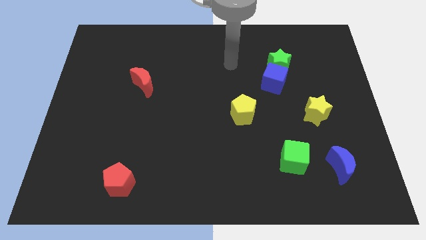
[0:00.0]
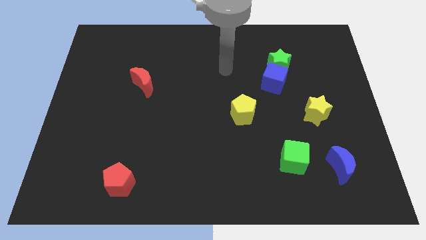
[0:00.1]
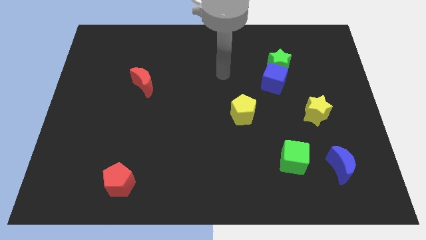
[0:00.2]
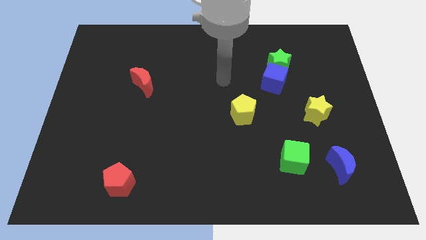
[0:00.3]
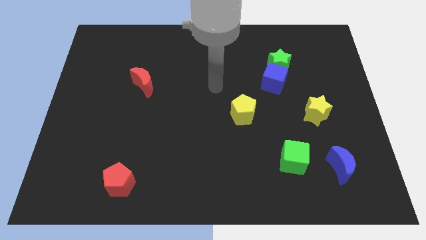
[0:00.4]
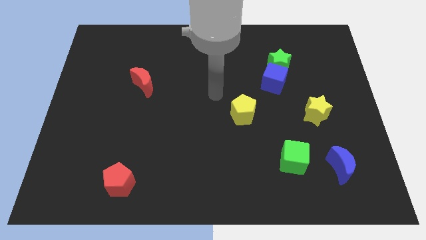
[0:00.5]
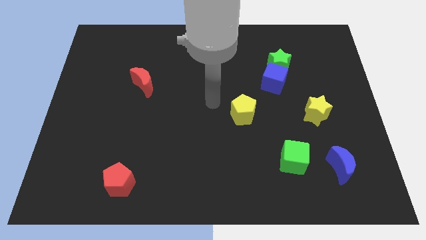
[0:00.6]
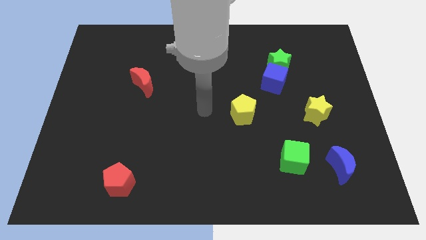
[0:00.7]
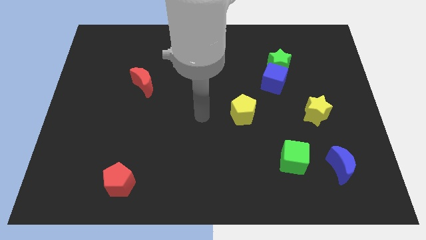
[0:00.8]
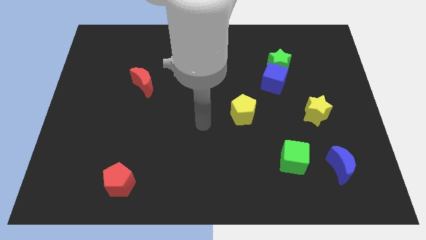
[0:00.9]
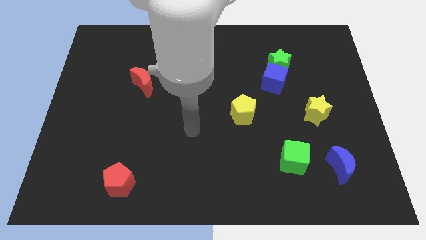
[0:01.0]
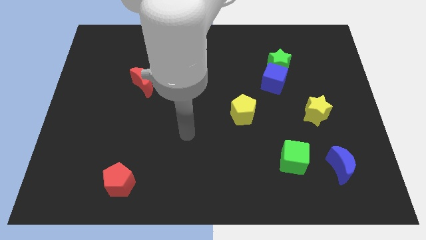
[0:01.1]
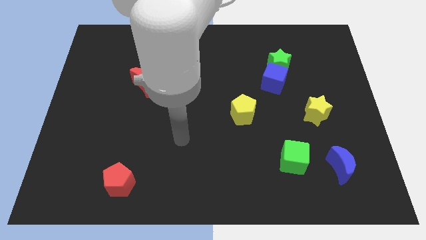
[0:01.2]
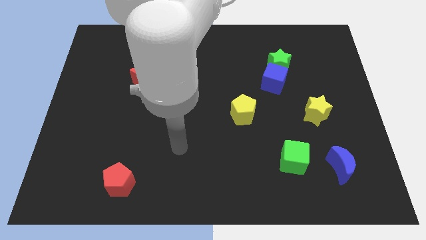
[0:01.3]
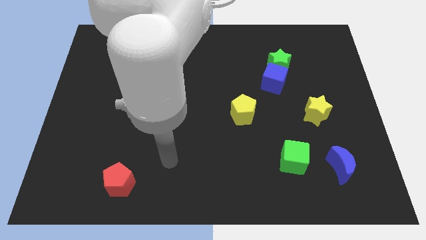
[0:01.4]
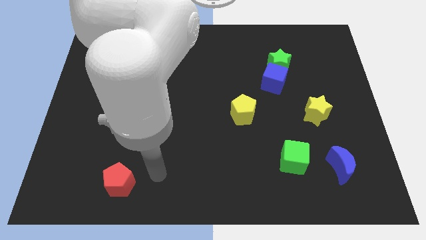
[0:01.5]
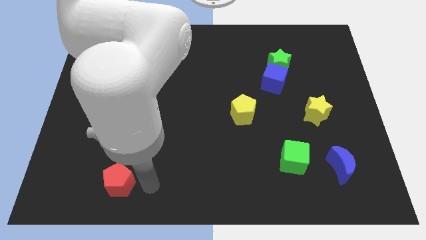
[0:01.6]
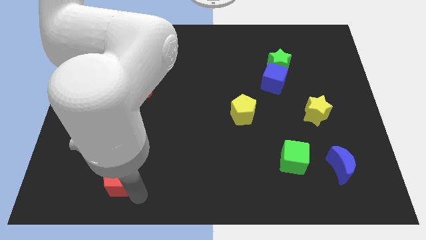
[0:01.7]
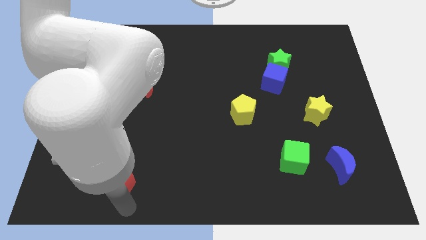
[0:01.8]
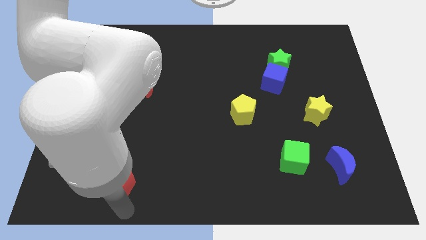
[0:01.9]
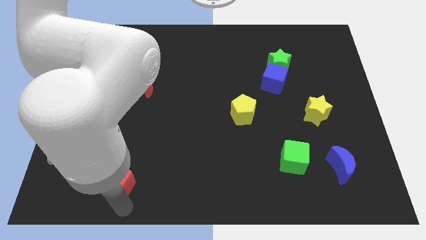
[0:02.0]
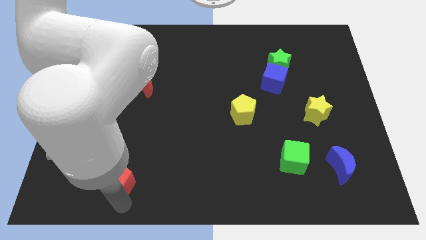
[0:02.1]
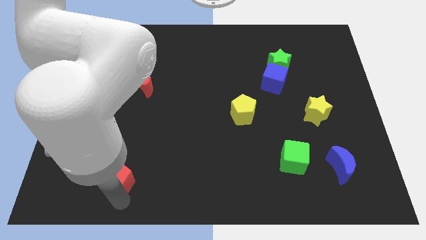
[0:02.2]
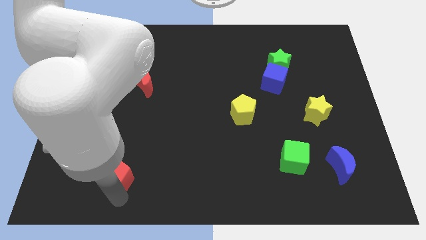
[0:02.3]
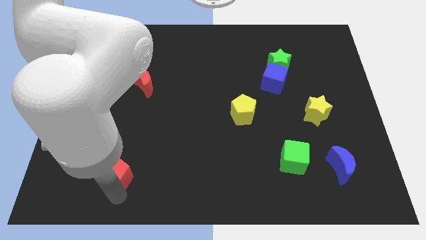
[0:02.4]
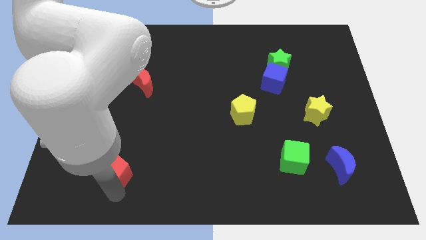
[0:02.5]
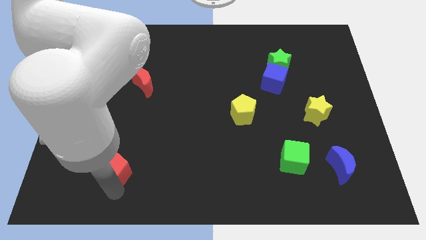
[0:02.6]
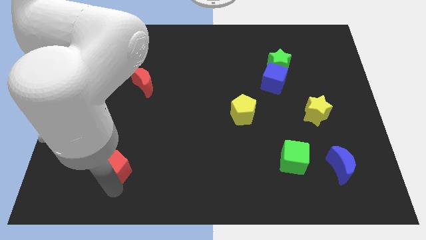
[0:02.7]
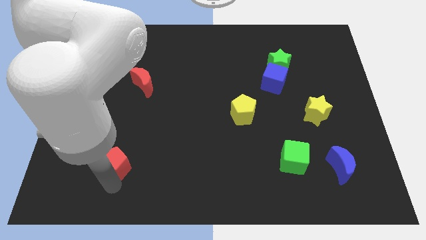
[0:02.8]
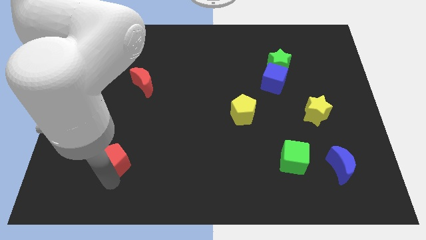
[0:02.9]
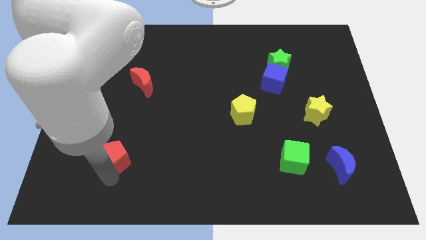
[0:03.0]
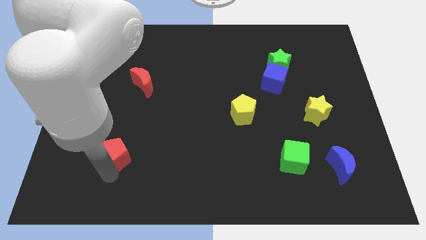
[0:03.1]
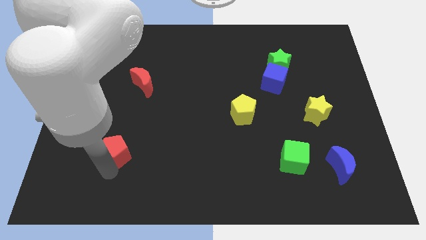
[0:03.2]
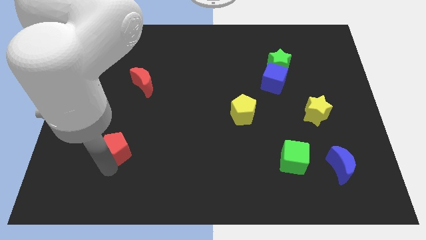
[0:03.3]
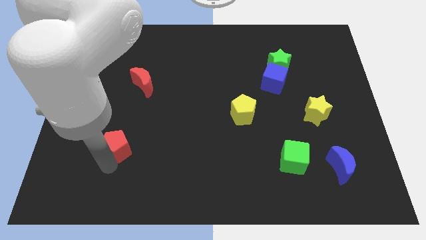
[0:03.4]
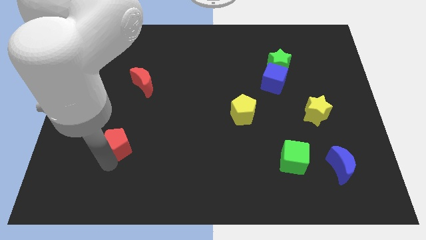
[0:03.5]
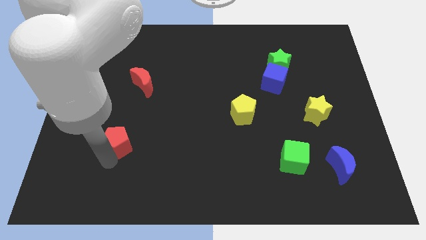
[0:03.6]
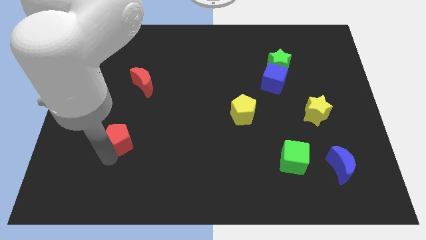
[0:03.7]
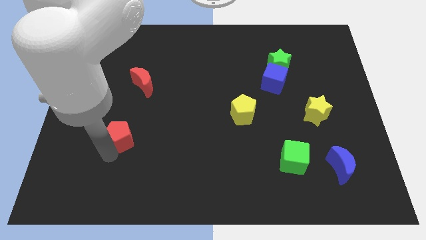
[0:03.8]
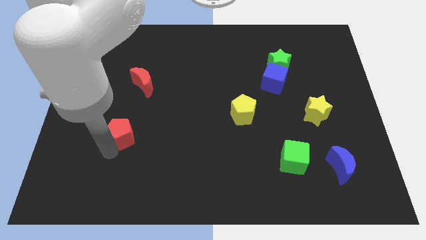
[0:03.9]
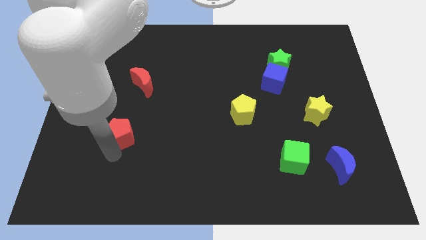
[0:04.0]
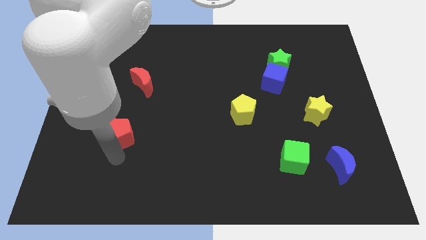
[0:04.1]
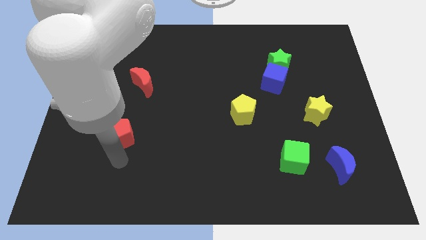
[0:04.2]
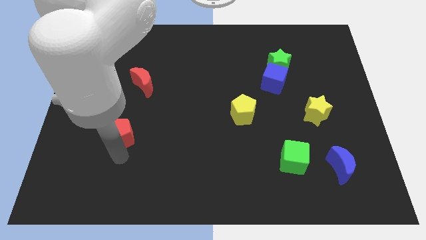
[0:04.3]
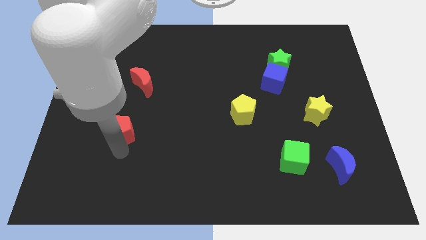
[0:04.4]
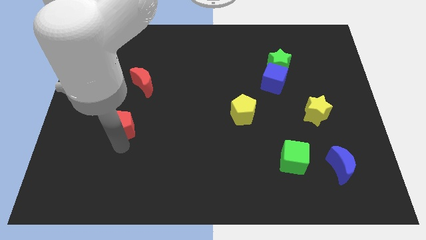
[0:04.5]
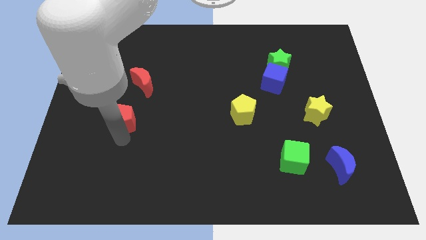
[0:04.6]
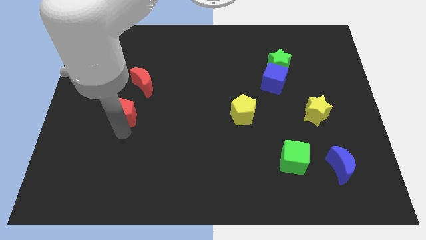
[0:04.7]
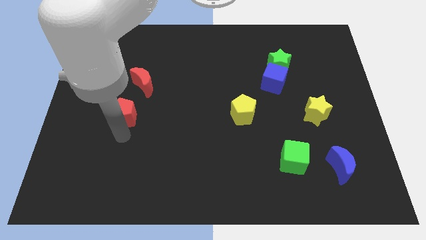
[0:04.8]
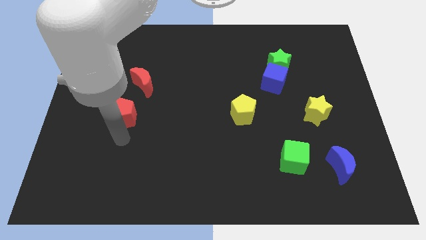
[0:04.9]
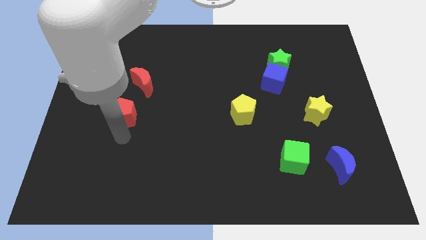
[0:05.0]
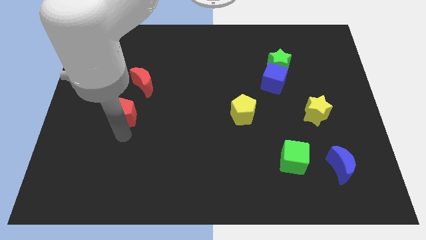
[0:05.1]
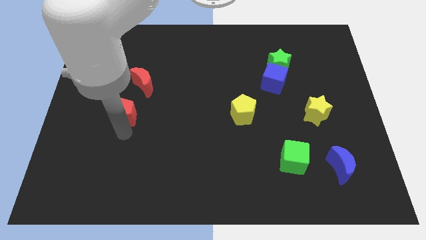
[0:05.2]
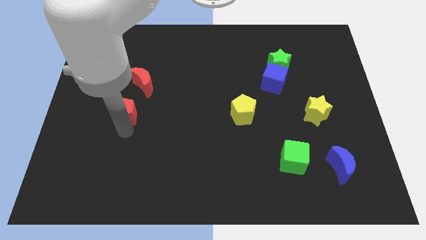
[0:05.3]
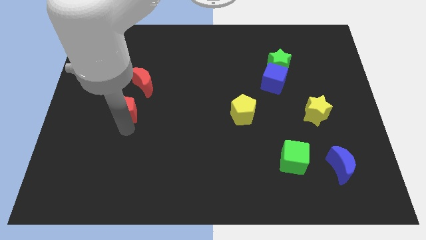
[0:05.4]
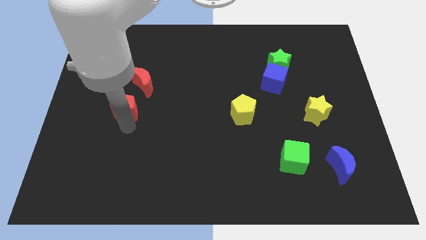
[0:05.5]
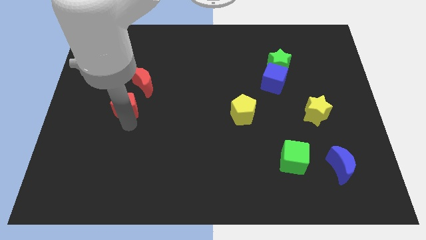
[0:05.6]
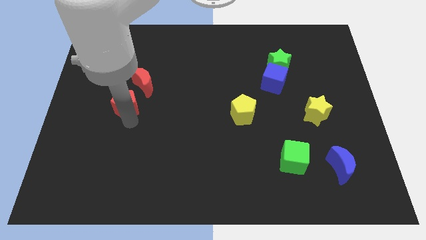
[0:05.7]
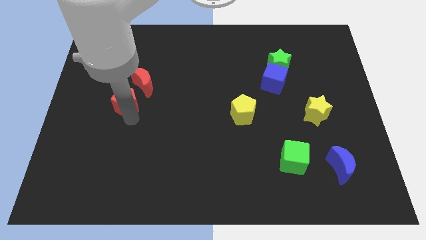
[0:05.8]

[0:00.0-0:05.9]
move the red pentagon upwards

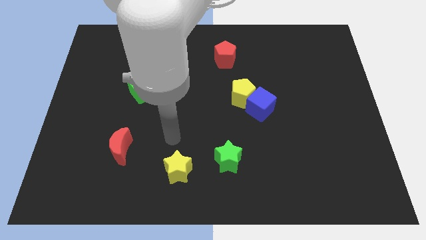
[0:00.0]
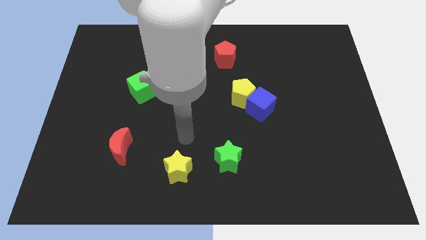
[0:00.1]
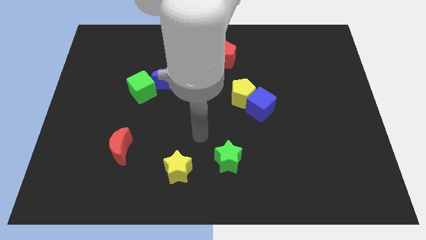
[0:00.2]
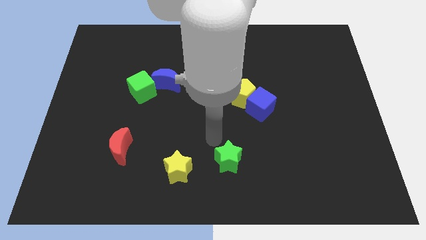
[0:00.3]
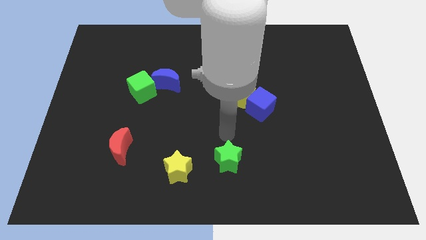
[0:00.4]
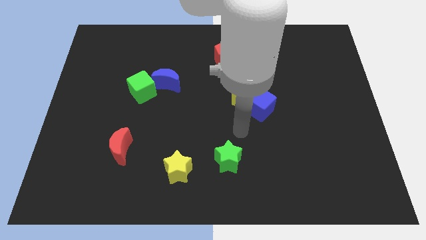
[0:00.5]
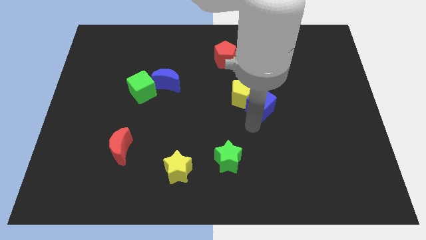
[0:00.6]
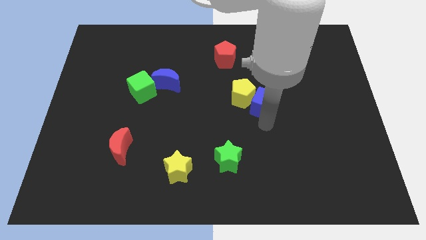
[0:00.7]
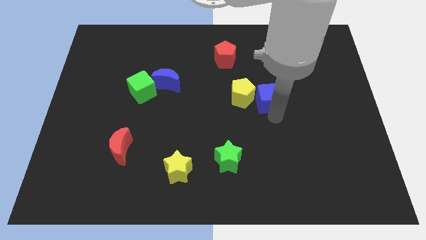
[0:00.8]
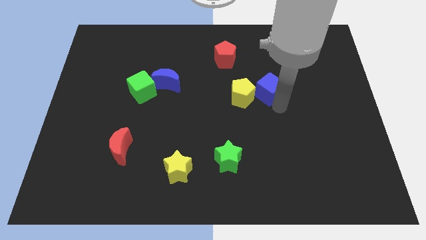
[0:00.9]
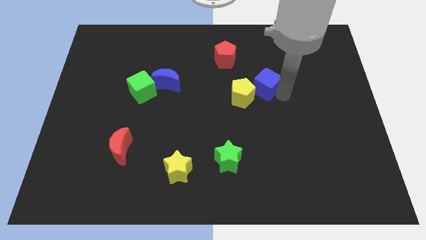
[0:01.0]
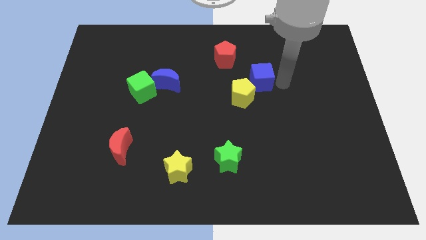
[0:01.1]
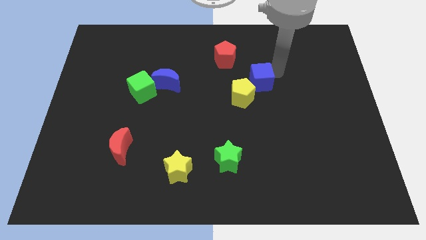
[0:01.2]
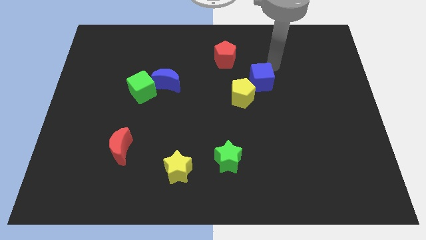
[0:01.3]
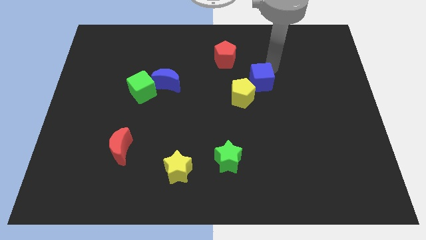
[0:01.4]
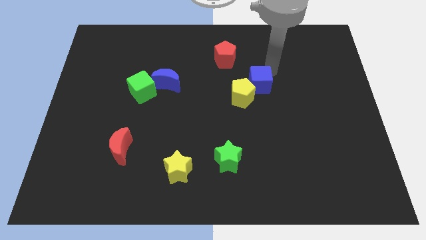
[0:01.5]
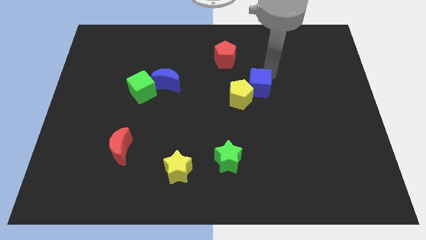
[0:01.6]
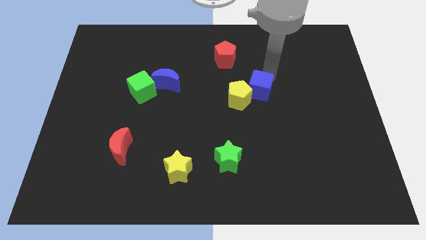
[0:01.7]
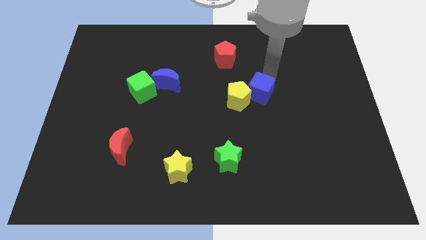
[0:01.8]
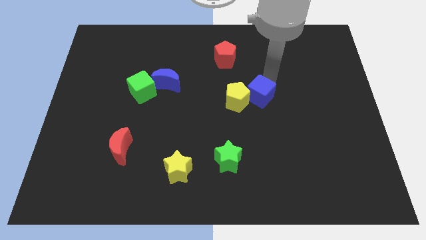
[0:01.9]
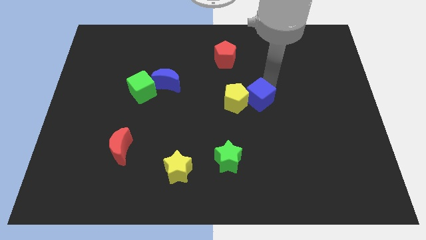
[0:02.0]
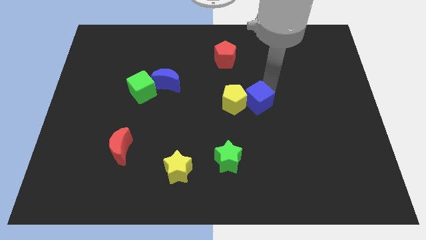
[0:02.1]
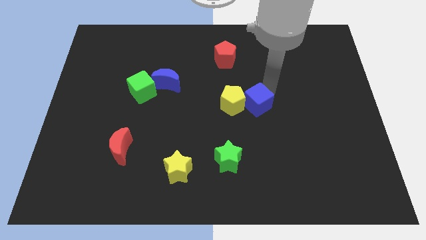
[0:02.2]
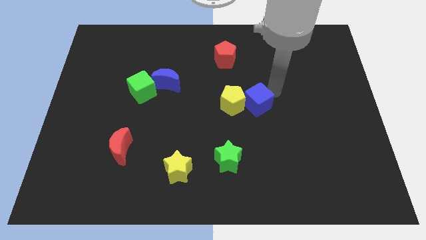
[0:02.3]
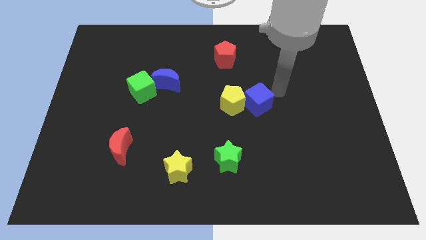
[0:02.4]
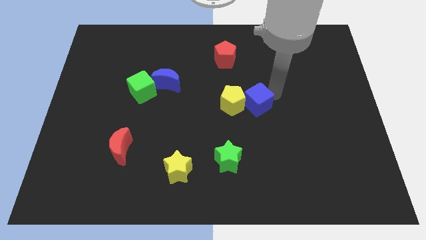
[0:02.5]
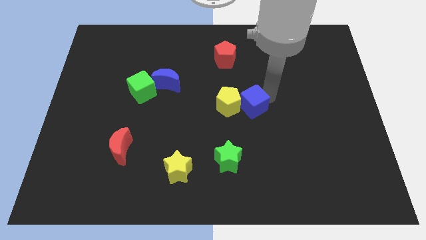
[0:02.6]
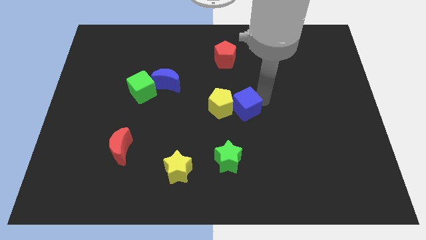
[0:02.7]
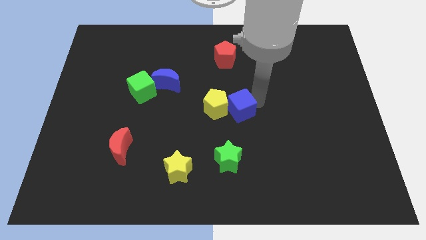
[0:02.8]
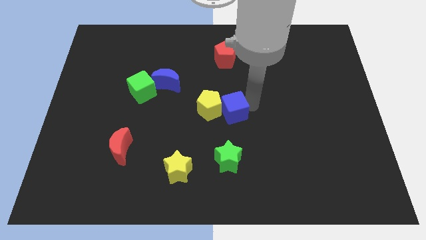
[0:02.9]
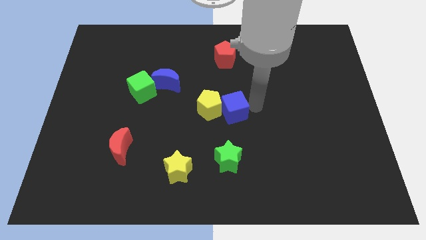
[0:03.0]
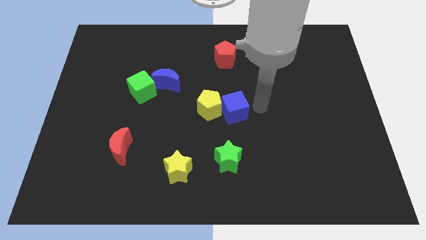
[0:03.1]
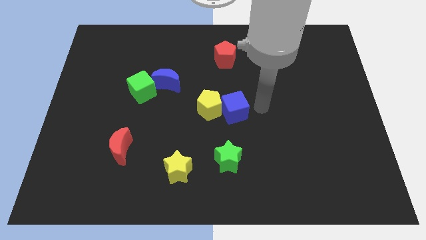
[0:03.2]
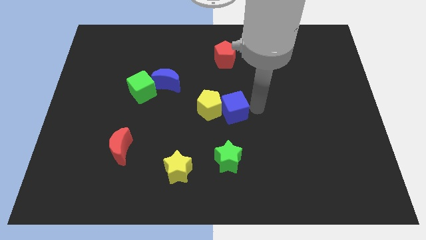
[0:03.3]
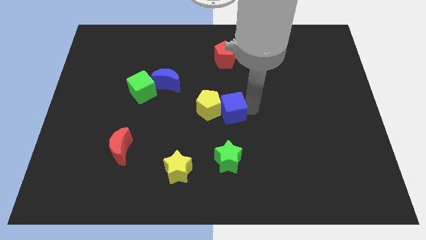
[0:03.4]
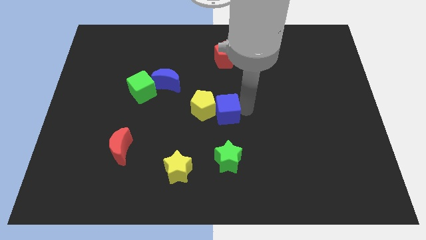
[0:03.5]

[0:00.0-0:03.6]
slide the blue cube a little left
